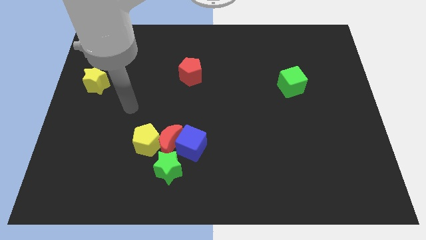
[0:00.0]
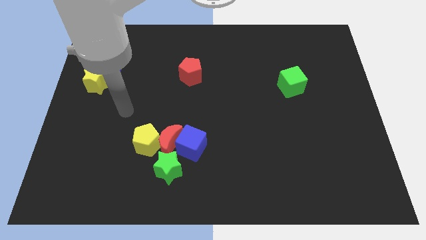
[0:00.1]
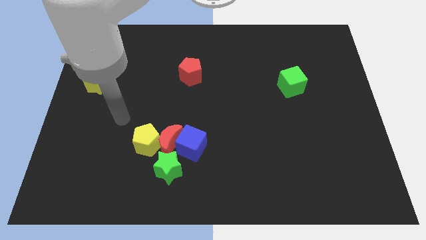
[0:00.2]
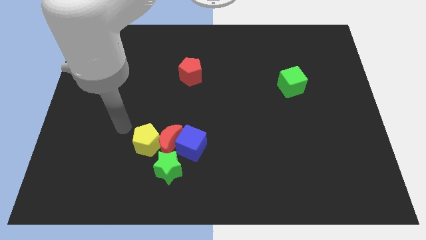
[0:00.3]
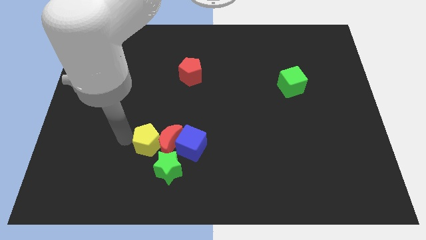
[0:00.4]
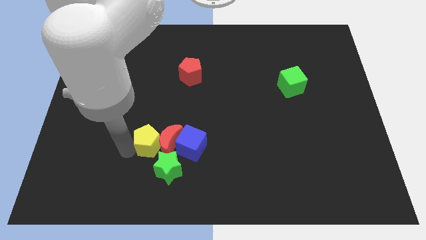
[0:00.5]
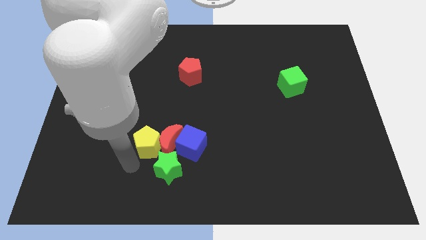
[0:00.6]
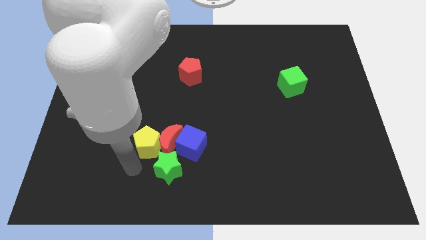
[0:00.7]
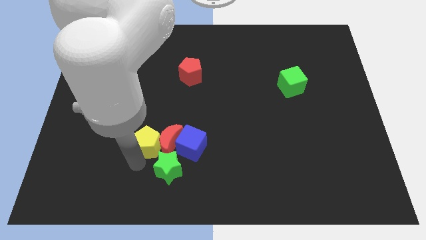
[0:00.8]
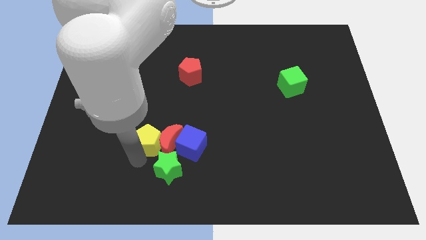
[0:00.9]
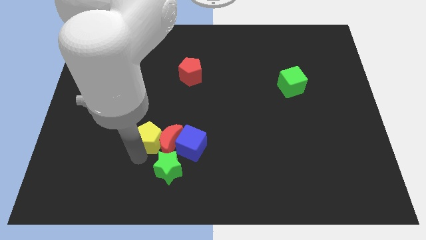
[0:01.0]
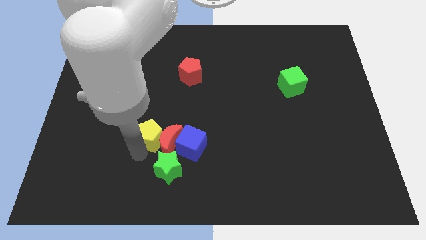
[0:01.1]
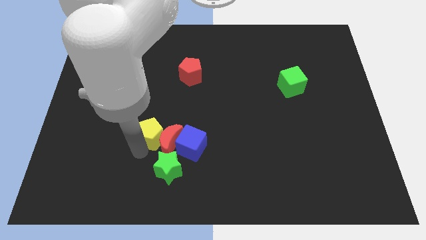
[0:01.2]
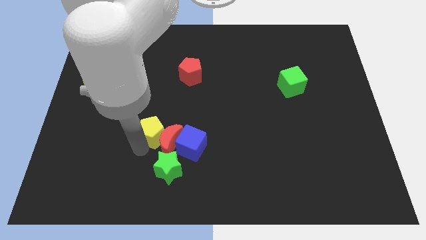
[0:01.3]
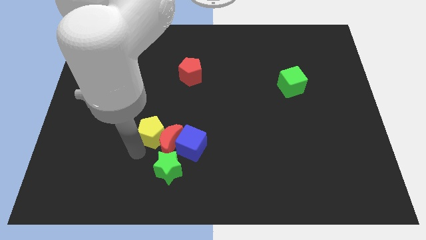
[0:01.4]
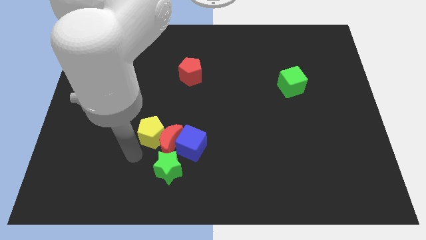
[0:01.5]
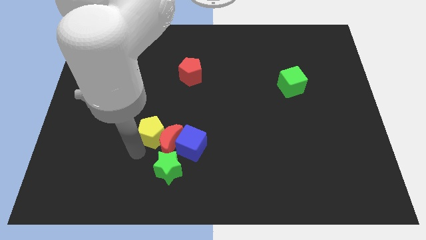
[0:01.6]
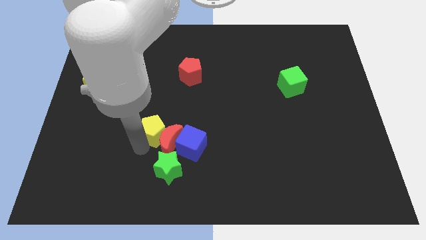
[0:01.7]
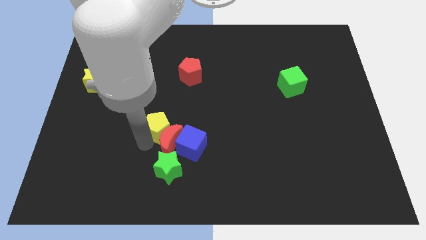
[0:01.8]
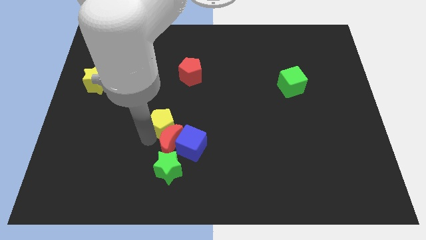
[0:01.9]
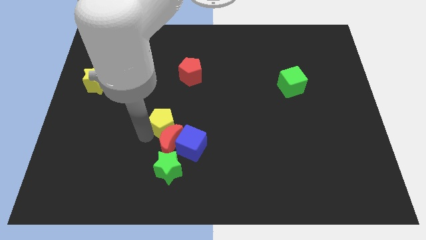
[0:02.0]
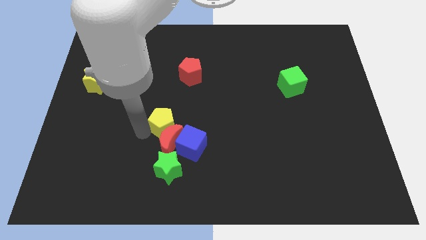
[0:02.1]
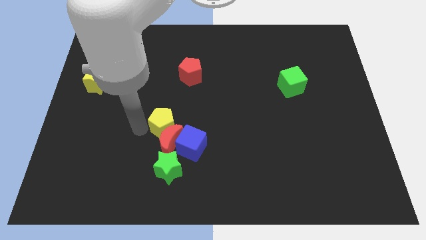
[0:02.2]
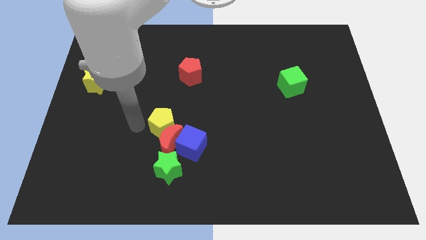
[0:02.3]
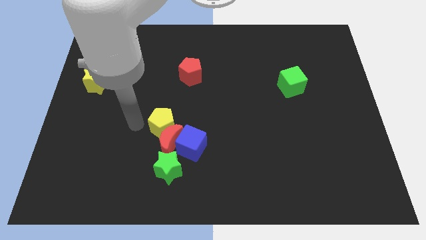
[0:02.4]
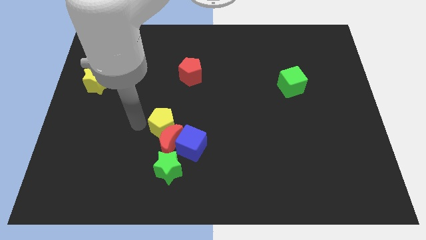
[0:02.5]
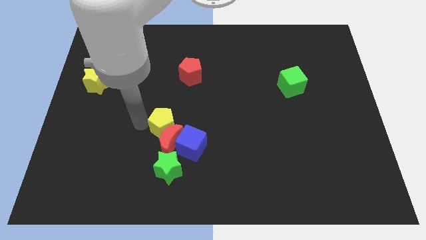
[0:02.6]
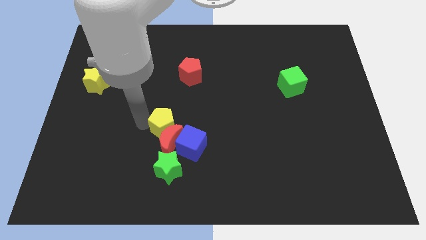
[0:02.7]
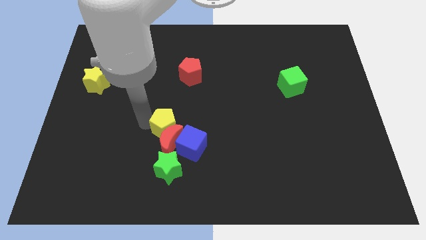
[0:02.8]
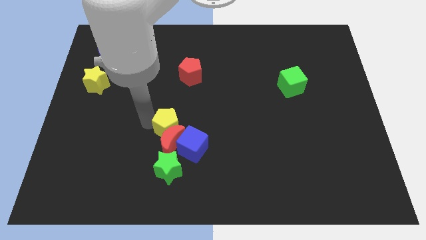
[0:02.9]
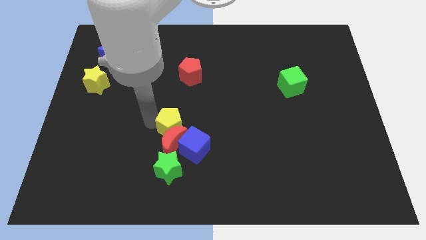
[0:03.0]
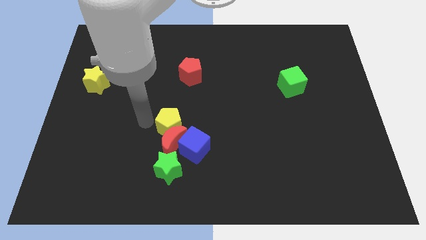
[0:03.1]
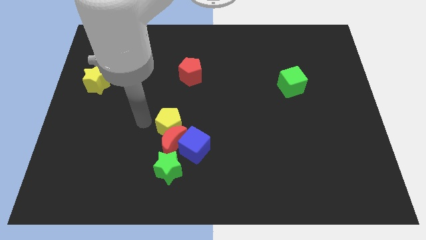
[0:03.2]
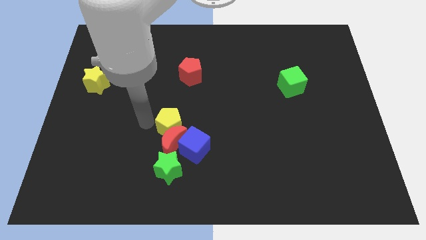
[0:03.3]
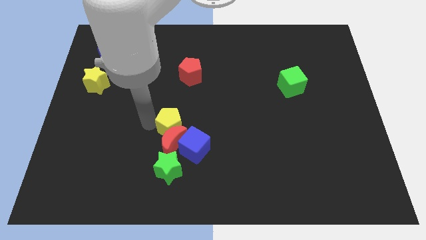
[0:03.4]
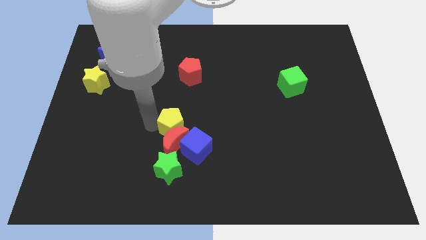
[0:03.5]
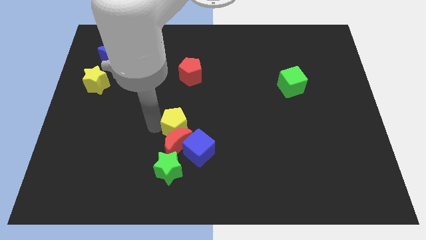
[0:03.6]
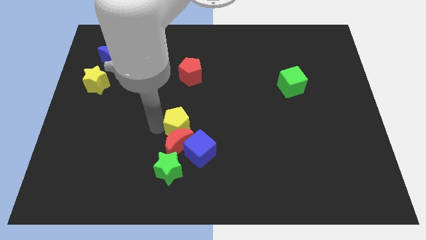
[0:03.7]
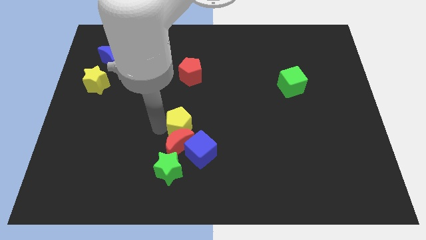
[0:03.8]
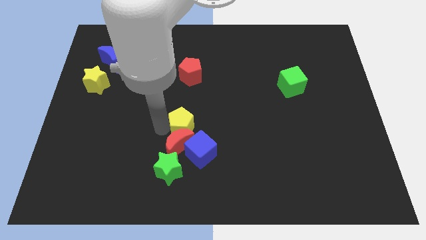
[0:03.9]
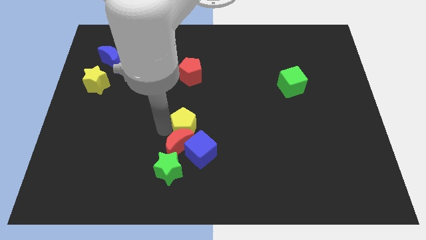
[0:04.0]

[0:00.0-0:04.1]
slide the yellow pentagon right a little

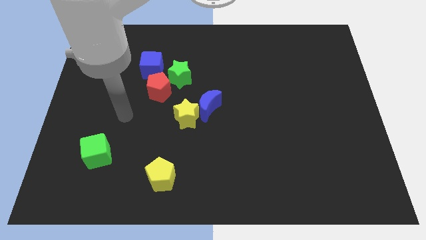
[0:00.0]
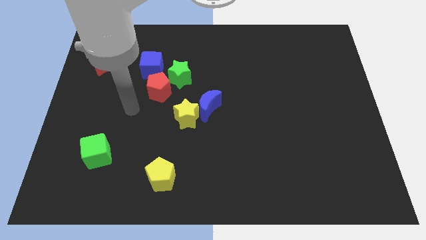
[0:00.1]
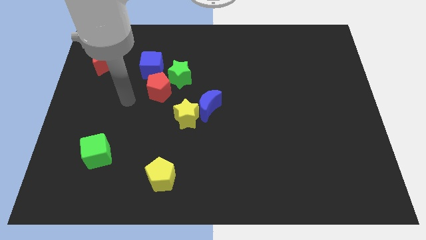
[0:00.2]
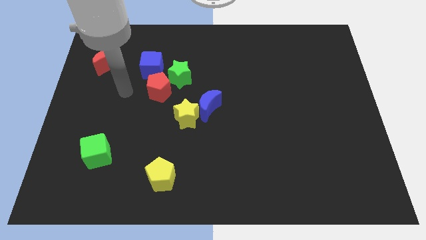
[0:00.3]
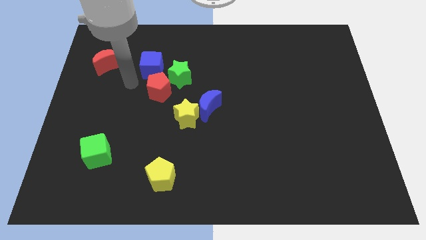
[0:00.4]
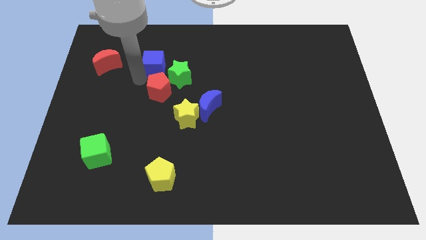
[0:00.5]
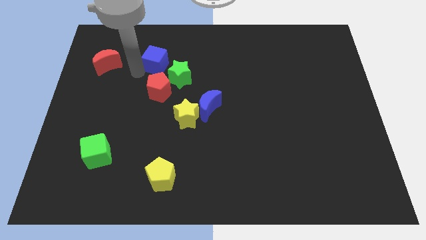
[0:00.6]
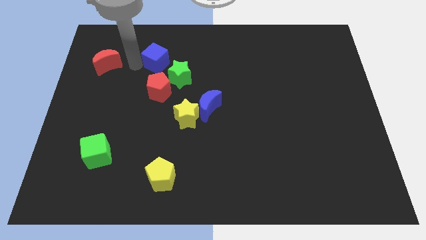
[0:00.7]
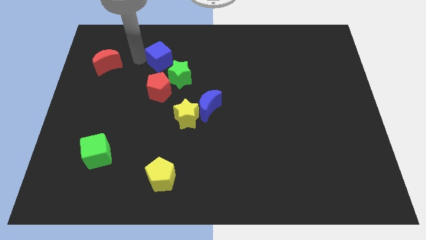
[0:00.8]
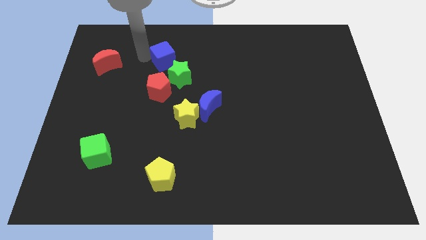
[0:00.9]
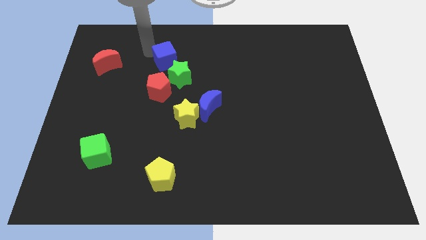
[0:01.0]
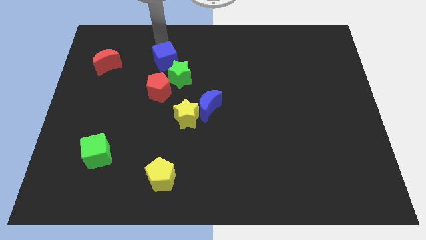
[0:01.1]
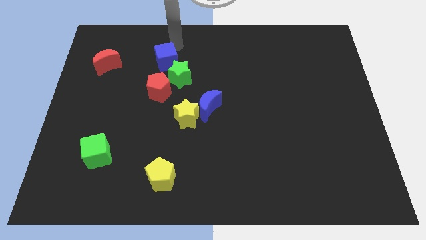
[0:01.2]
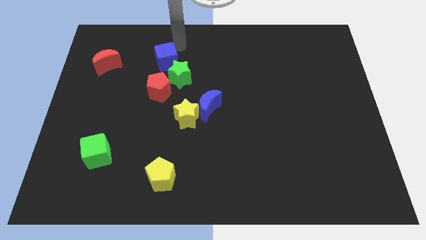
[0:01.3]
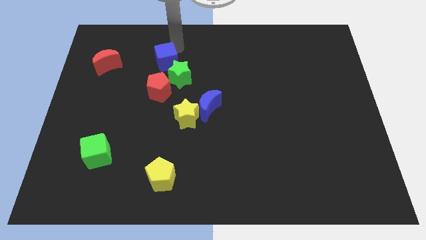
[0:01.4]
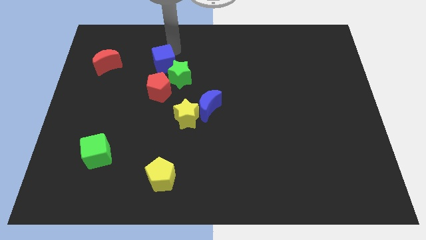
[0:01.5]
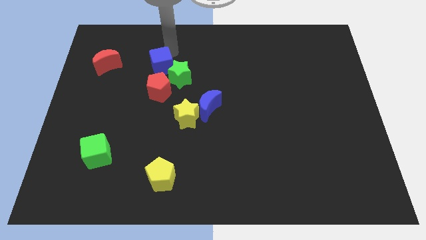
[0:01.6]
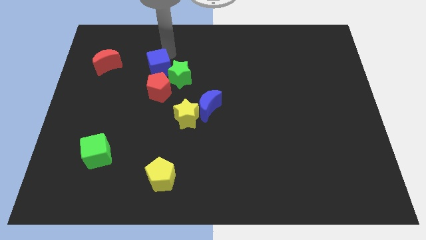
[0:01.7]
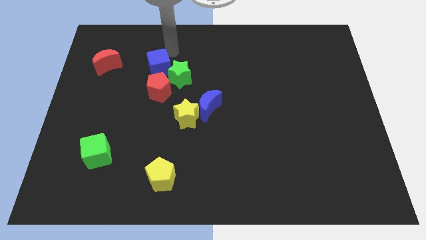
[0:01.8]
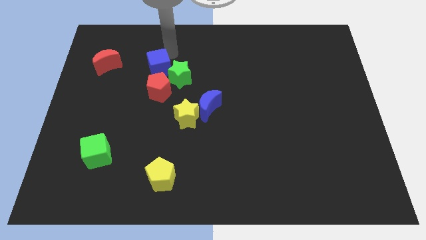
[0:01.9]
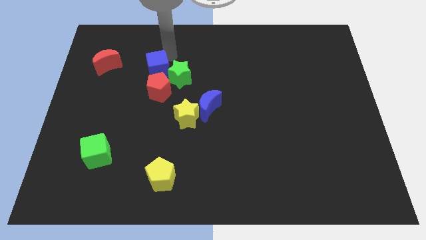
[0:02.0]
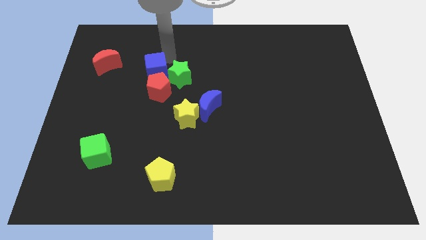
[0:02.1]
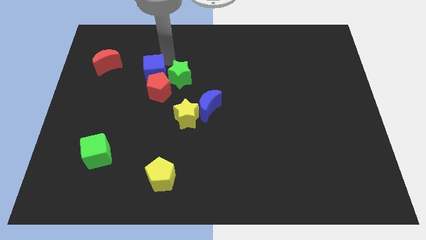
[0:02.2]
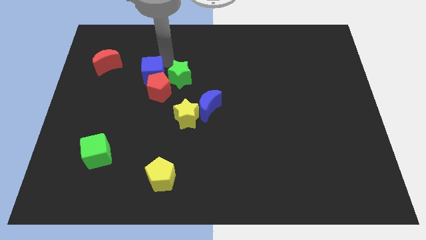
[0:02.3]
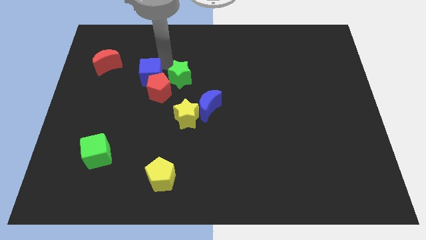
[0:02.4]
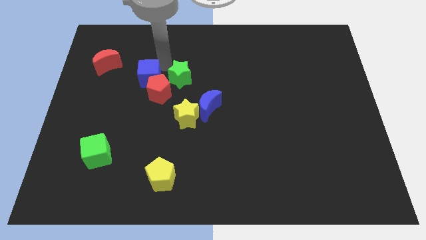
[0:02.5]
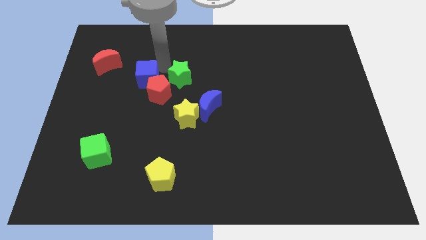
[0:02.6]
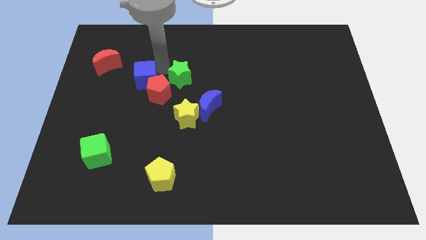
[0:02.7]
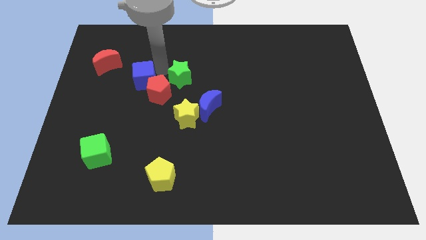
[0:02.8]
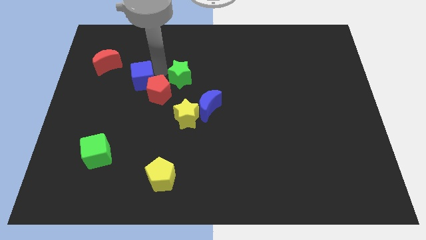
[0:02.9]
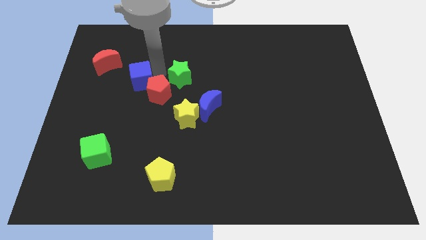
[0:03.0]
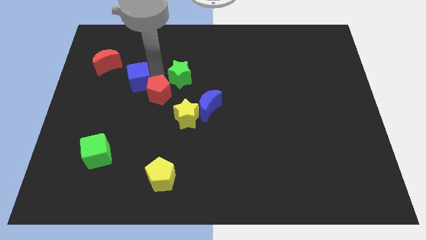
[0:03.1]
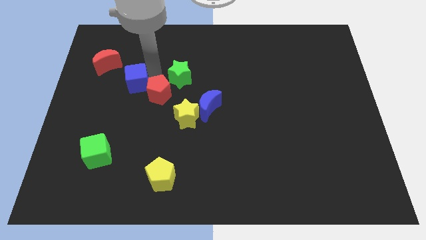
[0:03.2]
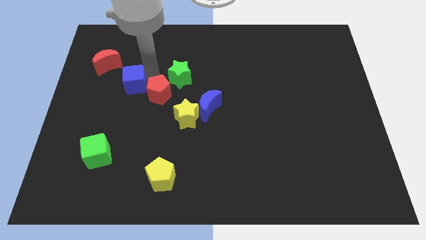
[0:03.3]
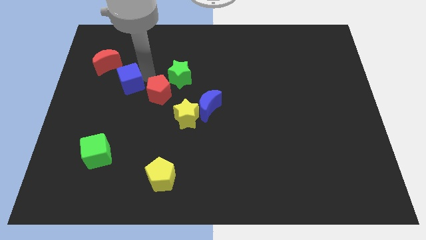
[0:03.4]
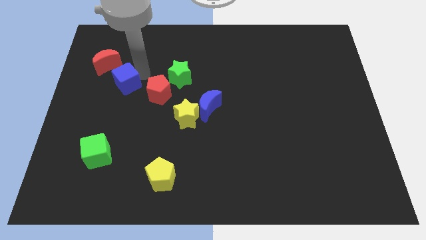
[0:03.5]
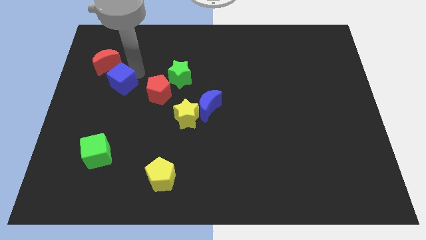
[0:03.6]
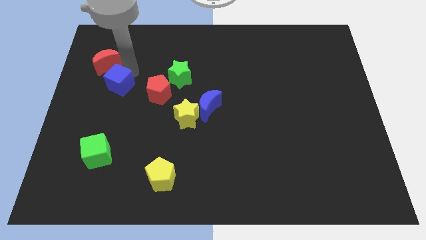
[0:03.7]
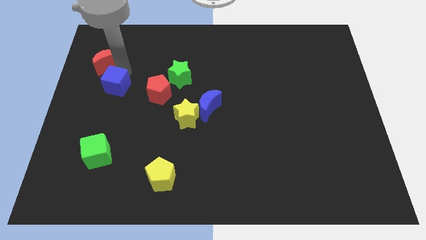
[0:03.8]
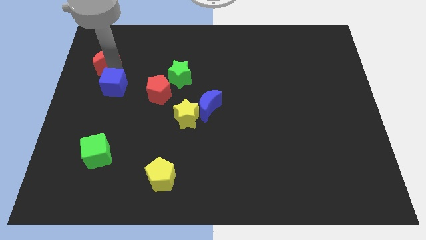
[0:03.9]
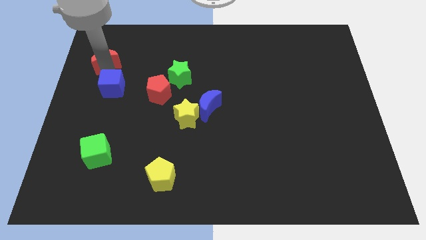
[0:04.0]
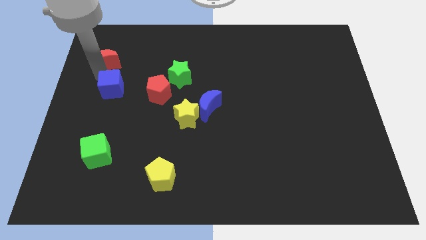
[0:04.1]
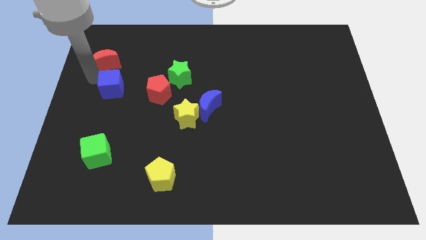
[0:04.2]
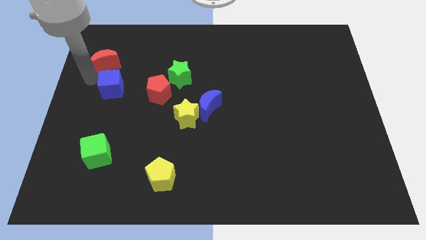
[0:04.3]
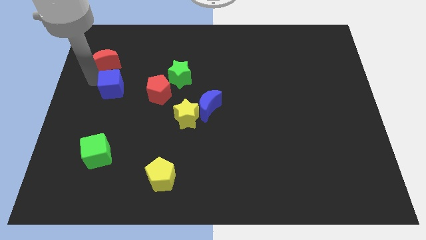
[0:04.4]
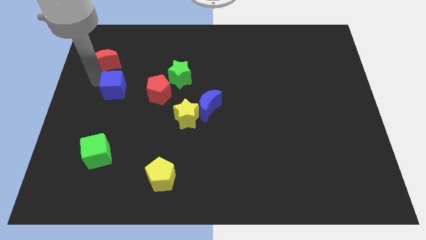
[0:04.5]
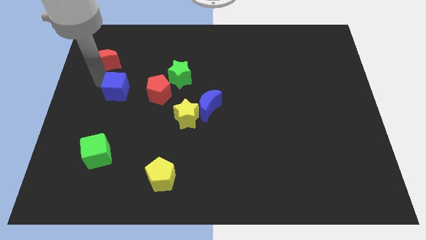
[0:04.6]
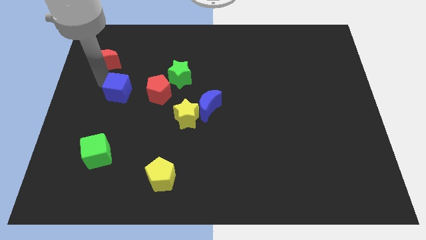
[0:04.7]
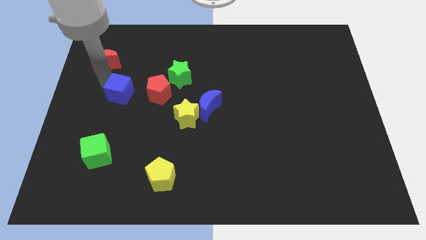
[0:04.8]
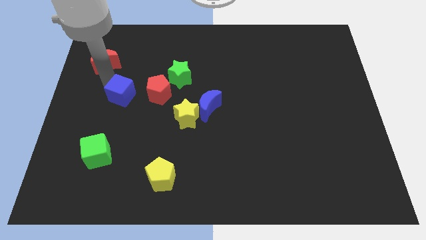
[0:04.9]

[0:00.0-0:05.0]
move the blue cube down a little
